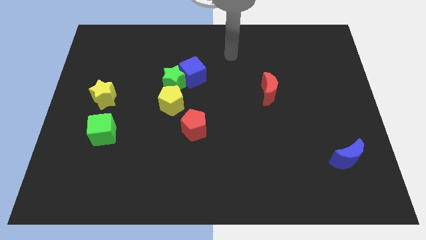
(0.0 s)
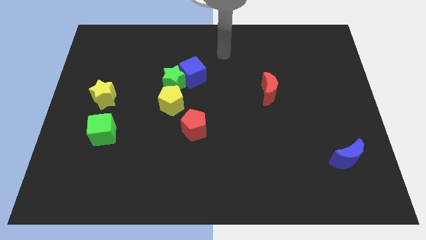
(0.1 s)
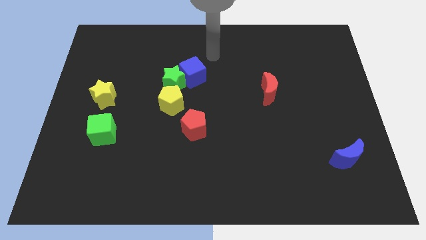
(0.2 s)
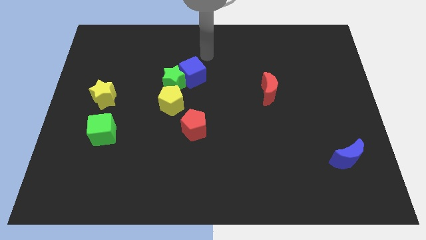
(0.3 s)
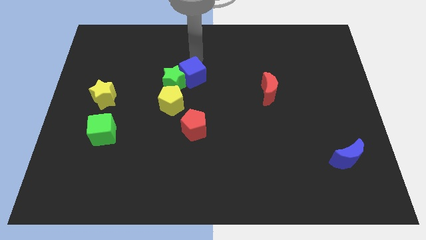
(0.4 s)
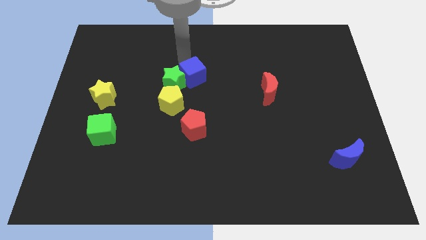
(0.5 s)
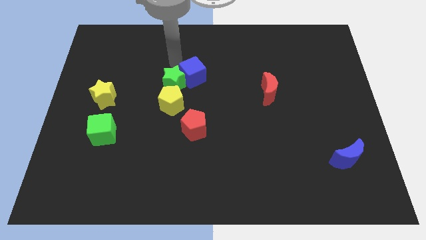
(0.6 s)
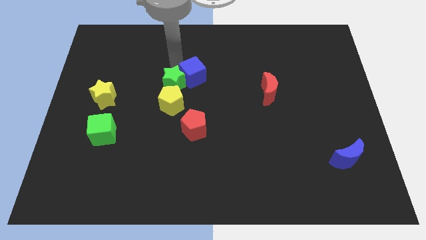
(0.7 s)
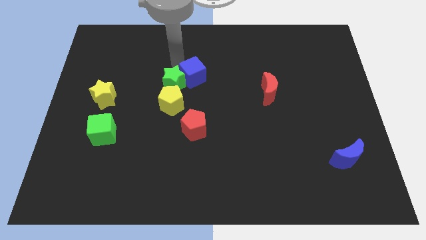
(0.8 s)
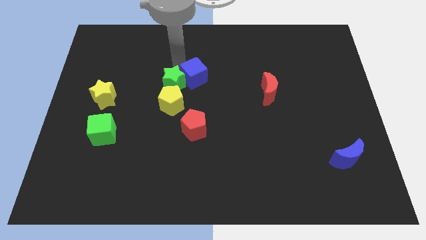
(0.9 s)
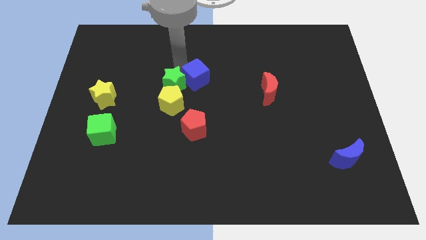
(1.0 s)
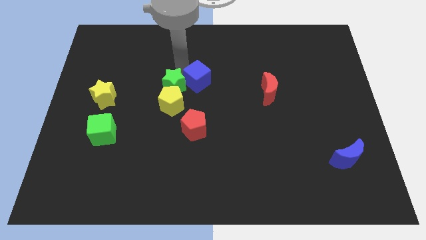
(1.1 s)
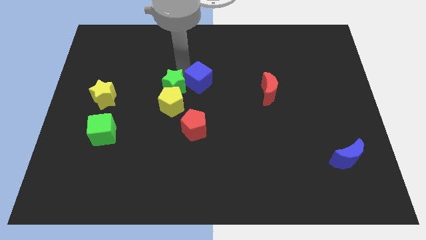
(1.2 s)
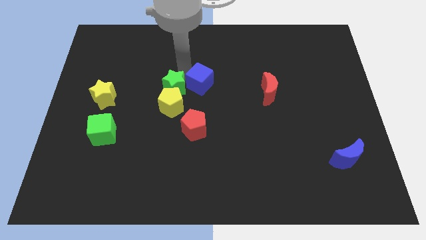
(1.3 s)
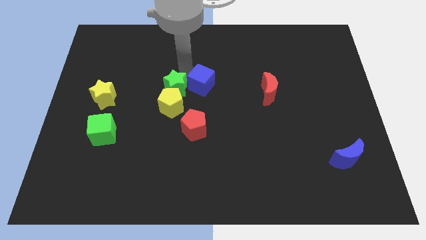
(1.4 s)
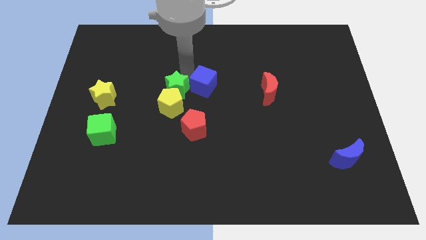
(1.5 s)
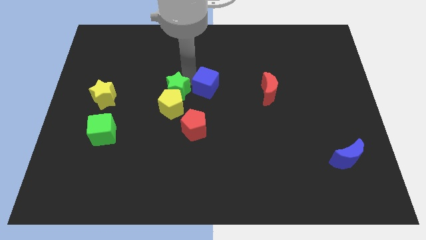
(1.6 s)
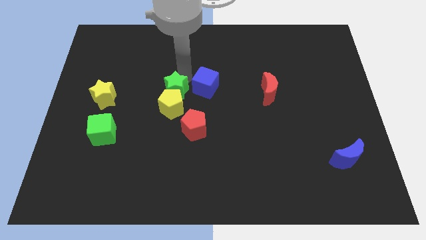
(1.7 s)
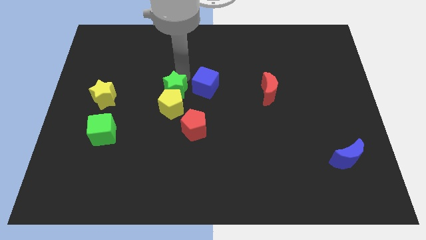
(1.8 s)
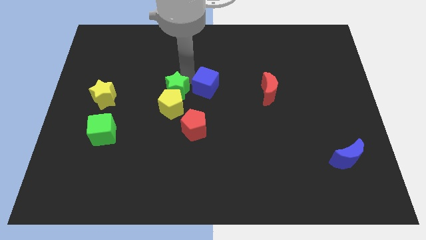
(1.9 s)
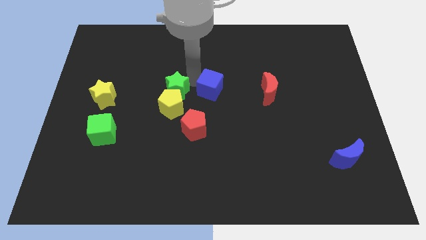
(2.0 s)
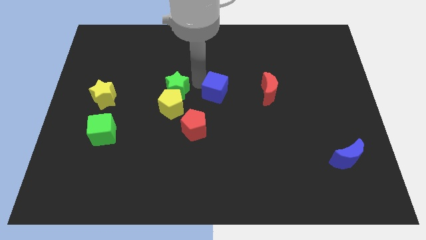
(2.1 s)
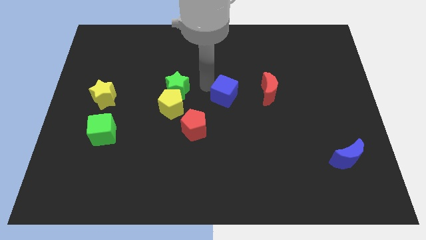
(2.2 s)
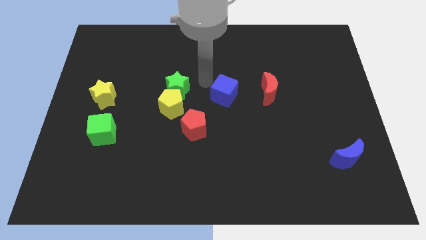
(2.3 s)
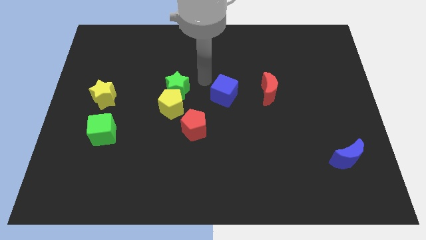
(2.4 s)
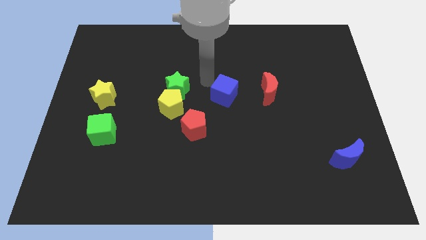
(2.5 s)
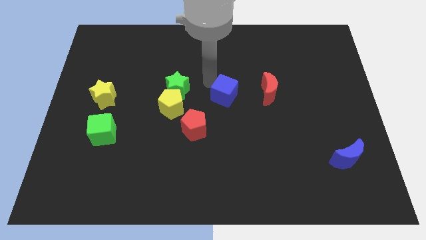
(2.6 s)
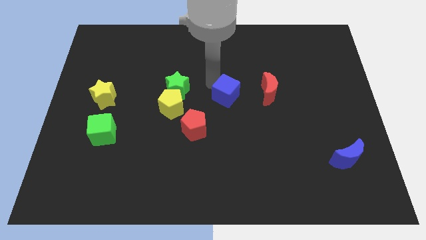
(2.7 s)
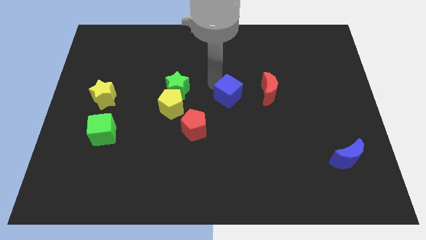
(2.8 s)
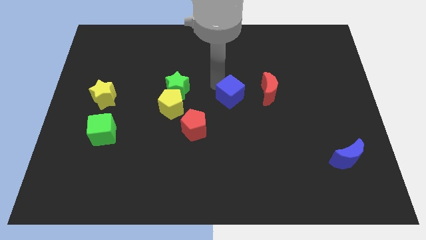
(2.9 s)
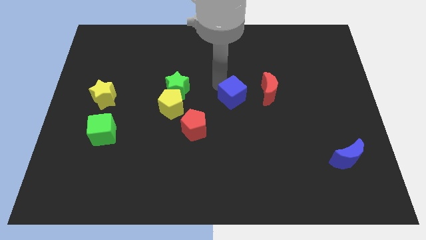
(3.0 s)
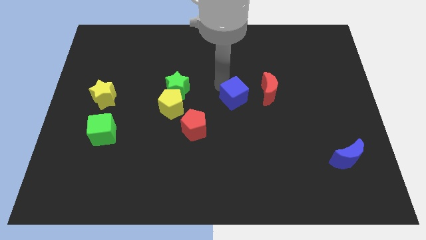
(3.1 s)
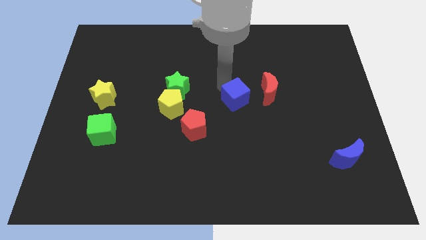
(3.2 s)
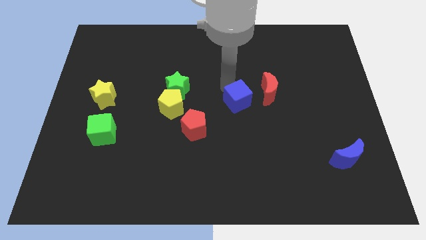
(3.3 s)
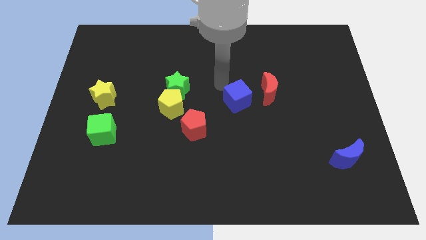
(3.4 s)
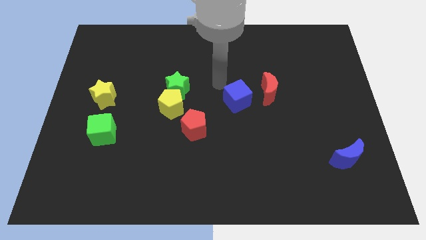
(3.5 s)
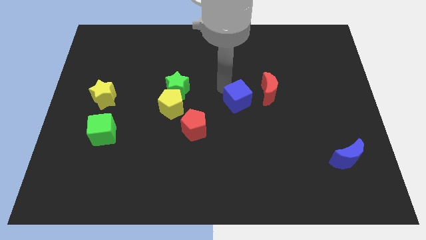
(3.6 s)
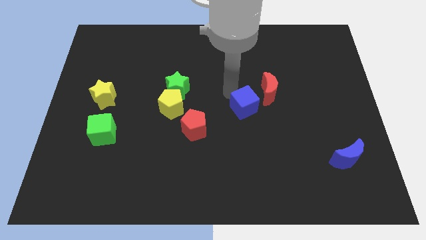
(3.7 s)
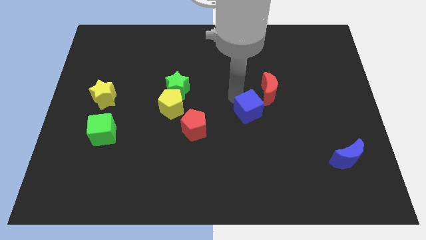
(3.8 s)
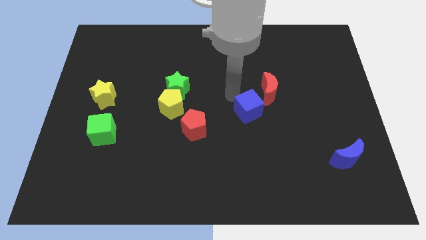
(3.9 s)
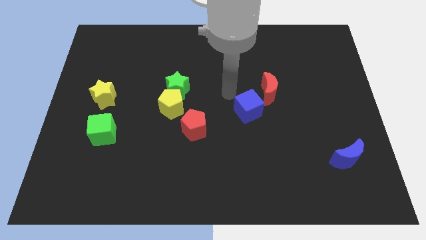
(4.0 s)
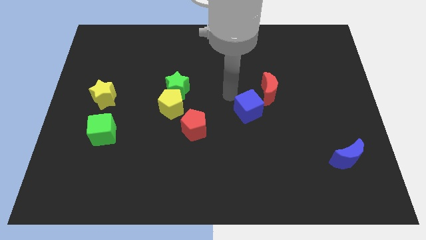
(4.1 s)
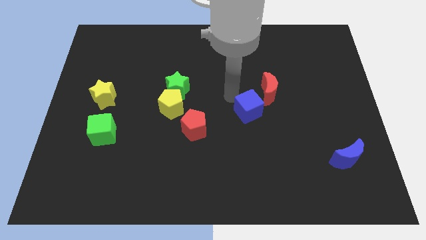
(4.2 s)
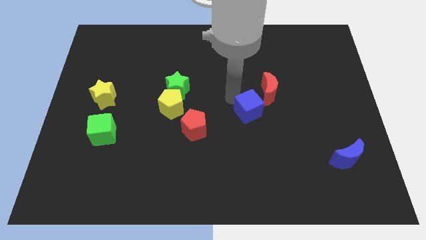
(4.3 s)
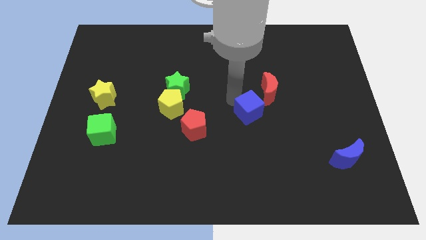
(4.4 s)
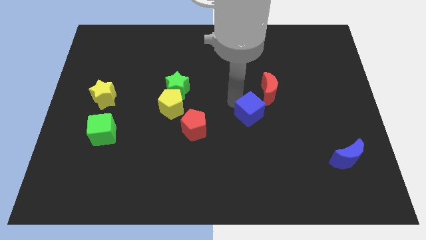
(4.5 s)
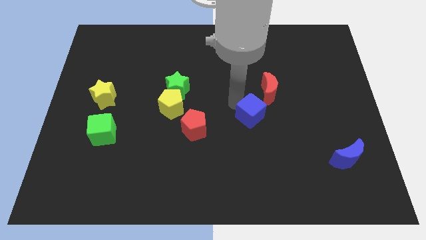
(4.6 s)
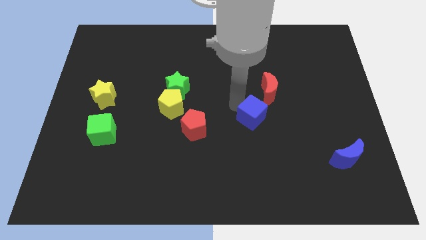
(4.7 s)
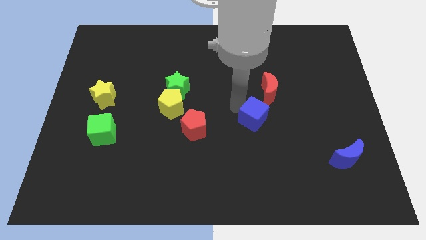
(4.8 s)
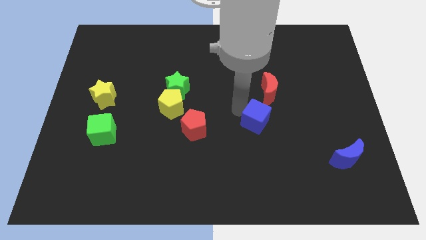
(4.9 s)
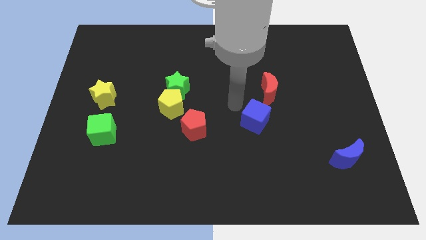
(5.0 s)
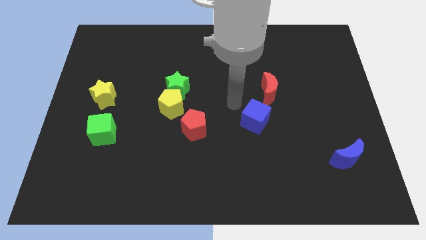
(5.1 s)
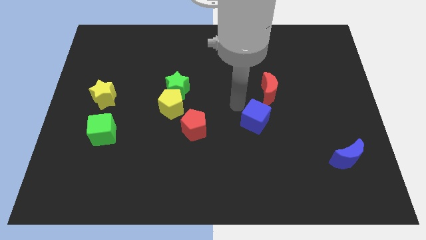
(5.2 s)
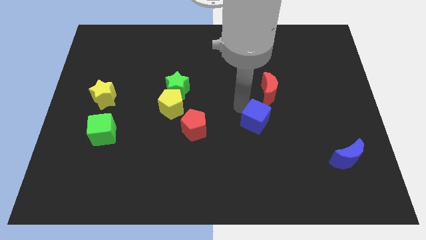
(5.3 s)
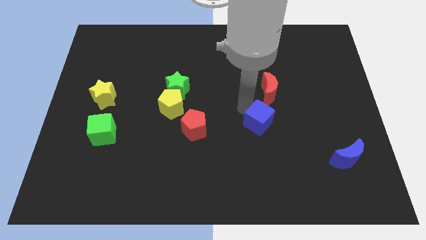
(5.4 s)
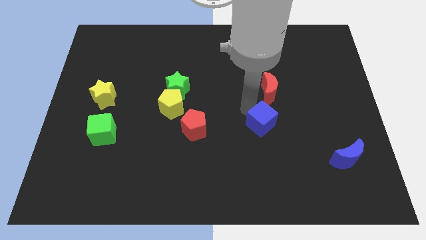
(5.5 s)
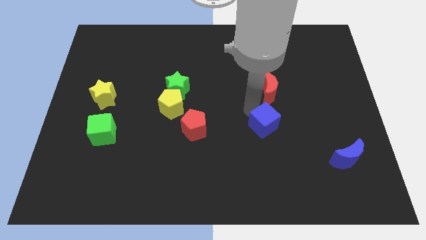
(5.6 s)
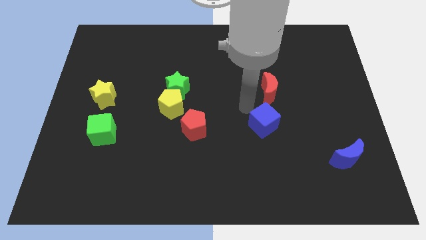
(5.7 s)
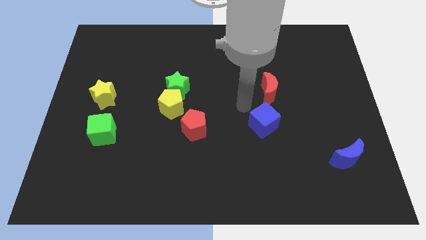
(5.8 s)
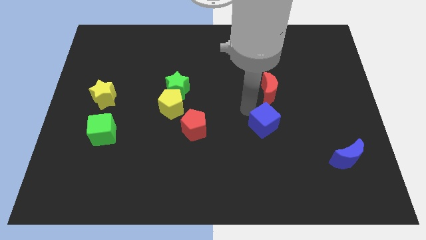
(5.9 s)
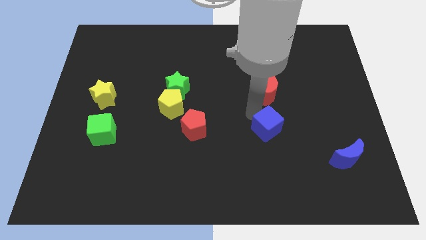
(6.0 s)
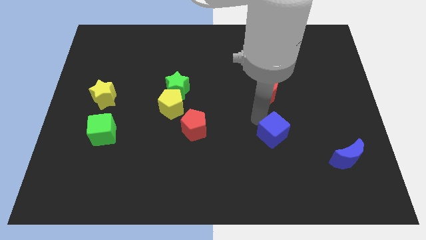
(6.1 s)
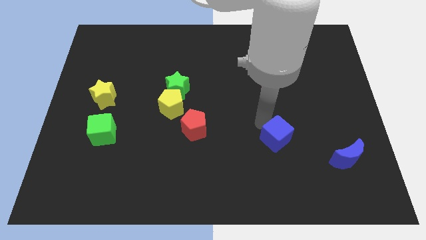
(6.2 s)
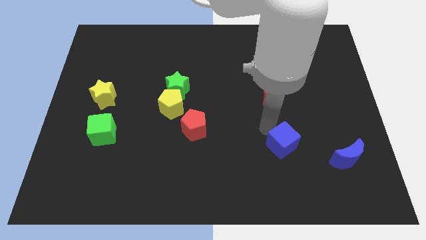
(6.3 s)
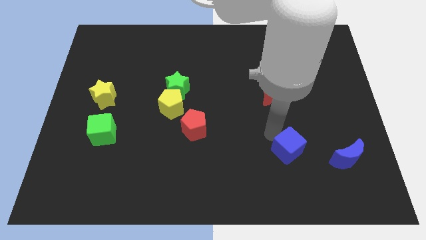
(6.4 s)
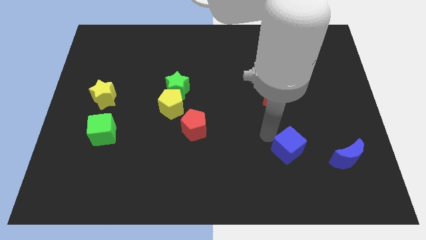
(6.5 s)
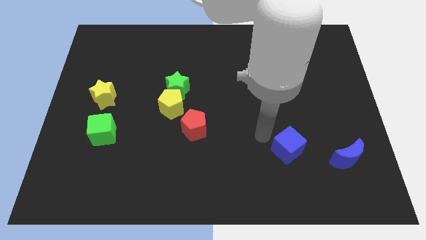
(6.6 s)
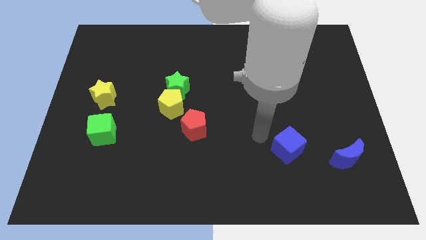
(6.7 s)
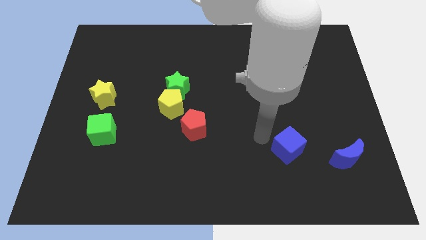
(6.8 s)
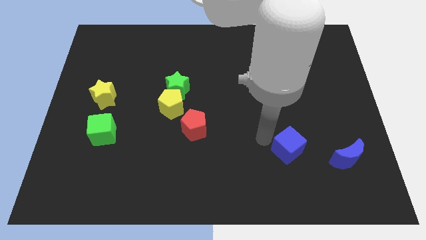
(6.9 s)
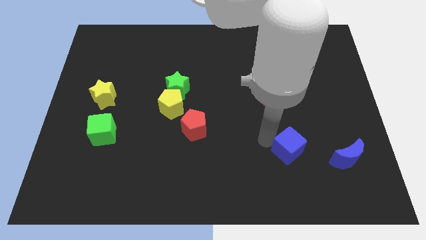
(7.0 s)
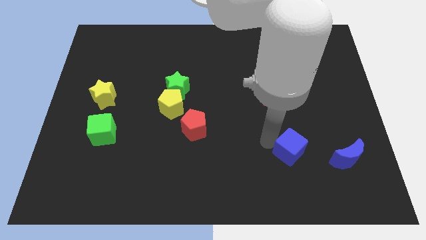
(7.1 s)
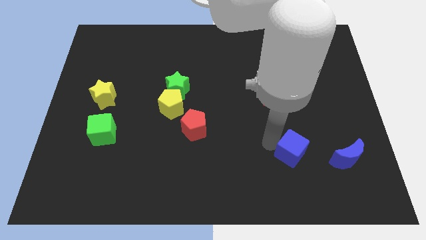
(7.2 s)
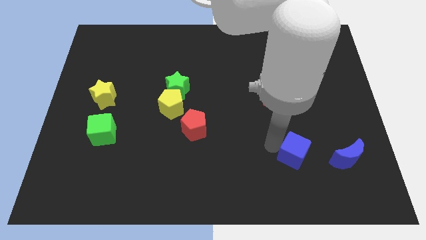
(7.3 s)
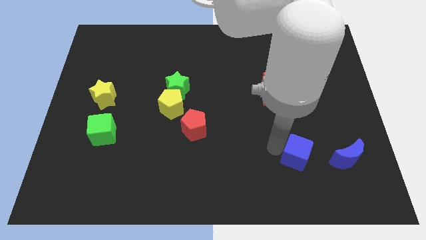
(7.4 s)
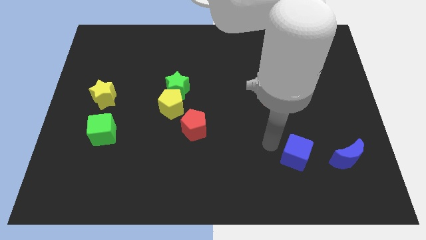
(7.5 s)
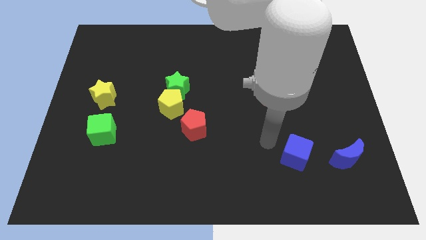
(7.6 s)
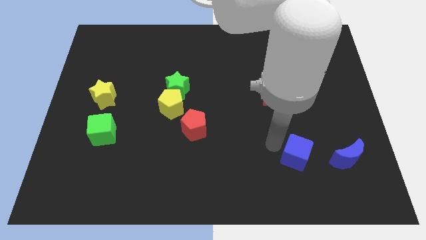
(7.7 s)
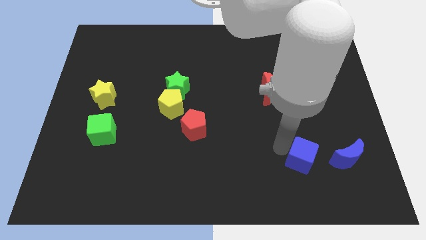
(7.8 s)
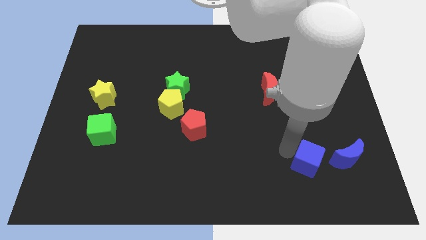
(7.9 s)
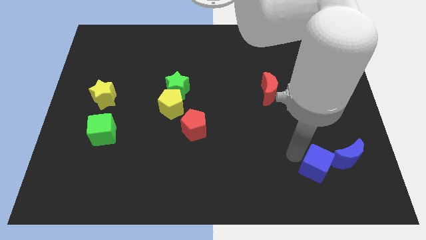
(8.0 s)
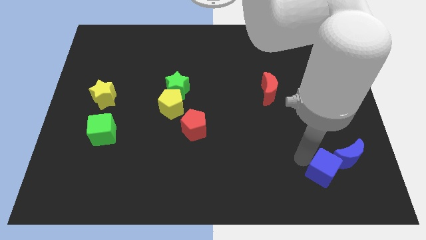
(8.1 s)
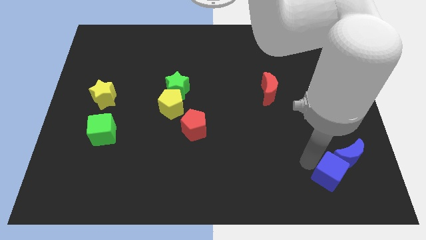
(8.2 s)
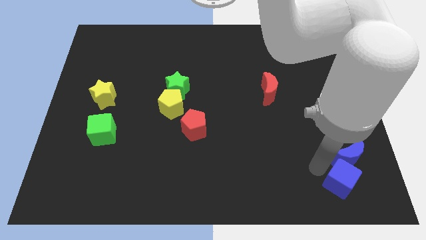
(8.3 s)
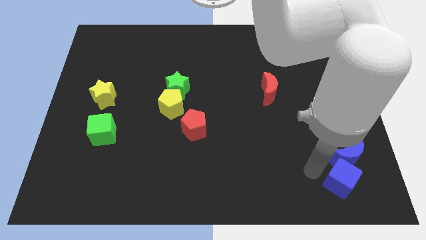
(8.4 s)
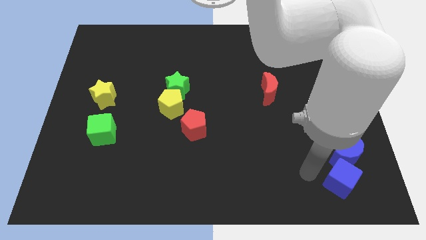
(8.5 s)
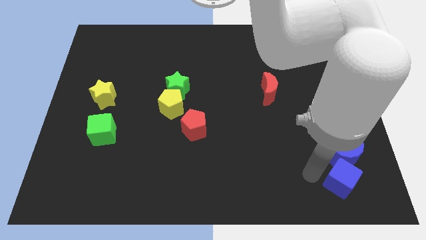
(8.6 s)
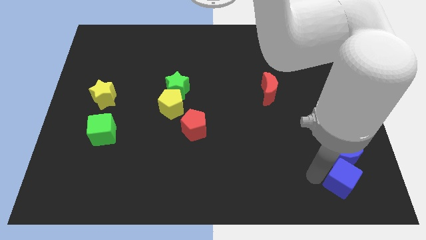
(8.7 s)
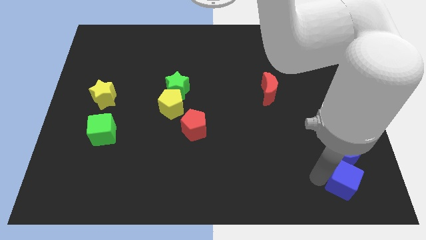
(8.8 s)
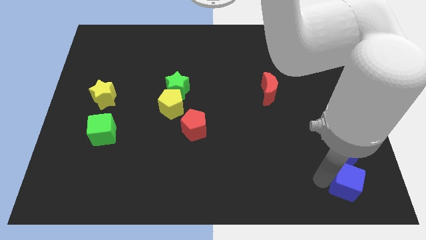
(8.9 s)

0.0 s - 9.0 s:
push the blue cube to the bottom right
